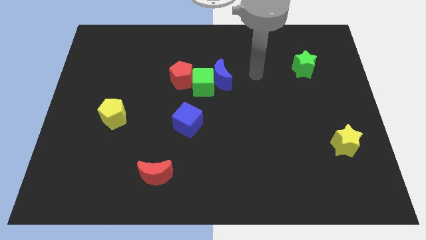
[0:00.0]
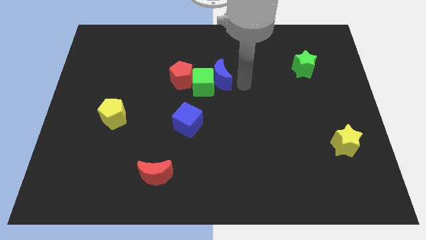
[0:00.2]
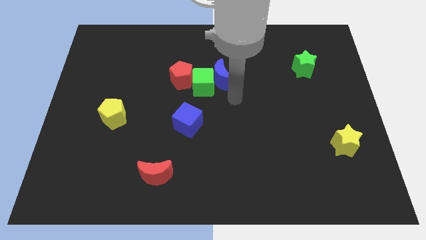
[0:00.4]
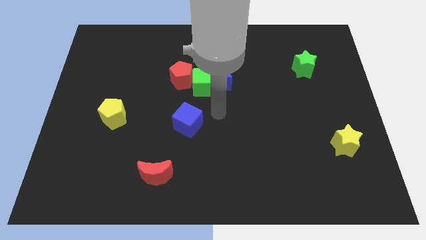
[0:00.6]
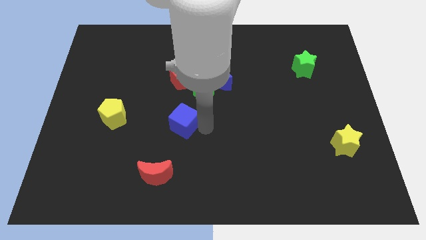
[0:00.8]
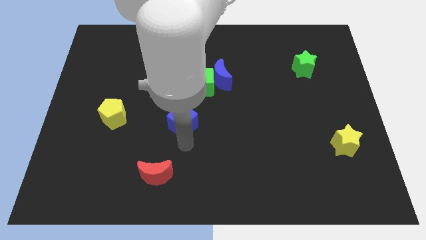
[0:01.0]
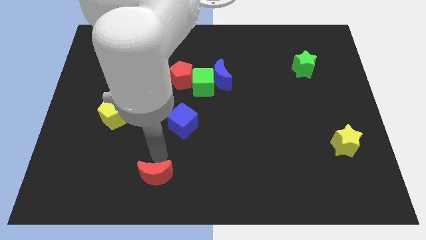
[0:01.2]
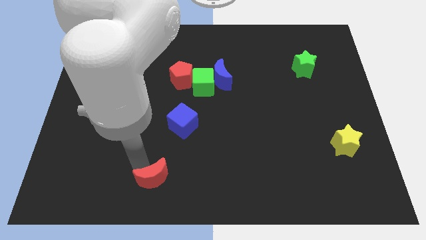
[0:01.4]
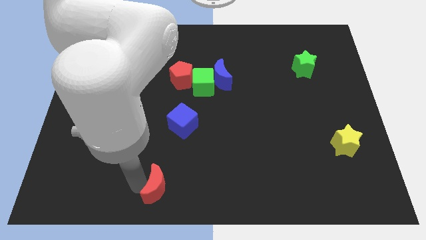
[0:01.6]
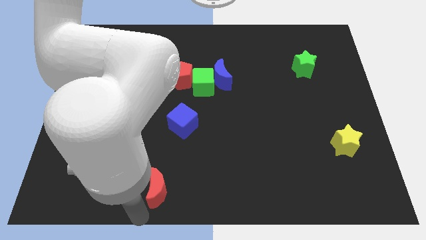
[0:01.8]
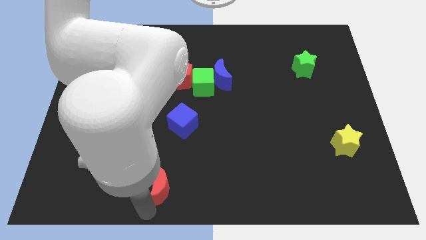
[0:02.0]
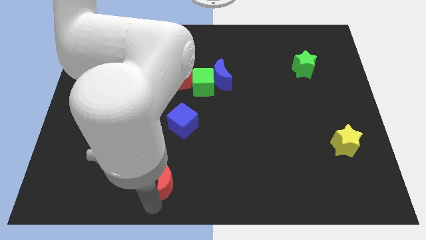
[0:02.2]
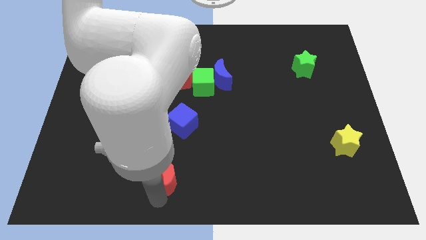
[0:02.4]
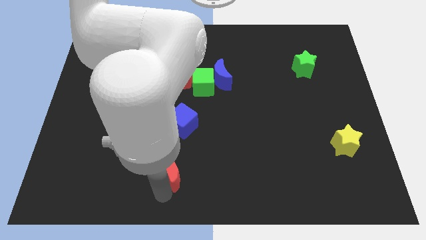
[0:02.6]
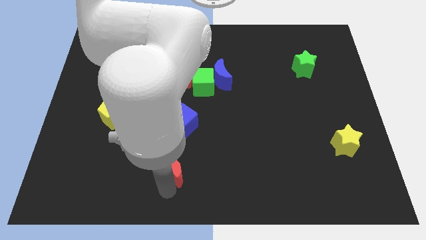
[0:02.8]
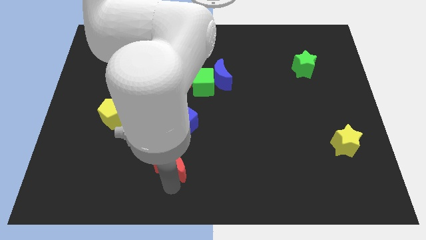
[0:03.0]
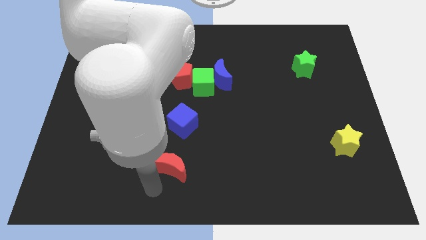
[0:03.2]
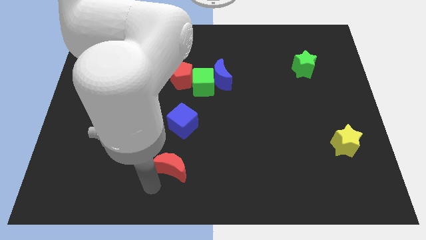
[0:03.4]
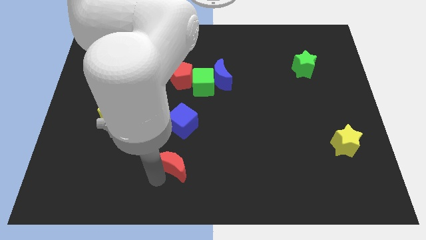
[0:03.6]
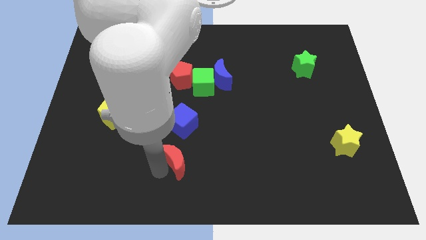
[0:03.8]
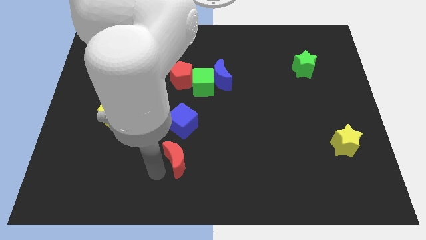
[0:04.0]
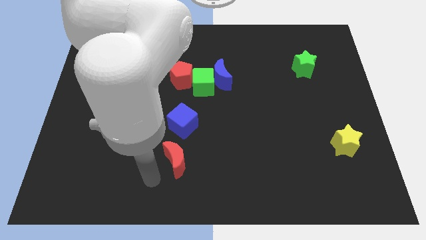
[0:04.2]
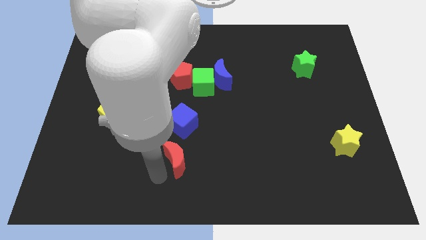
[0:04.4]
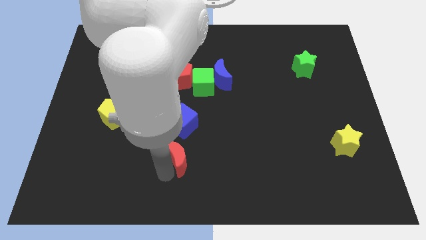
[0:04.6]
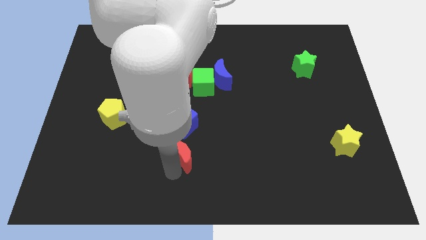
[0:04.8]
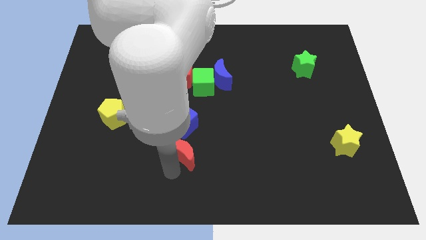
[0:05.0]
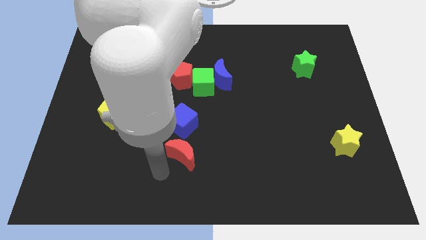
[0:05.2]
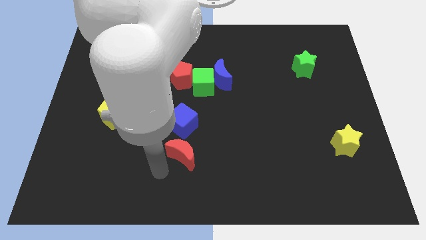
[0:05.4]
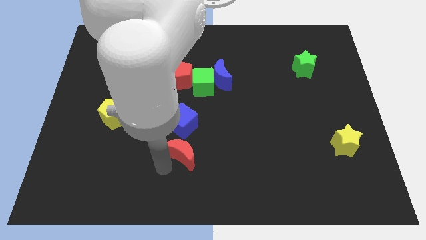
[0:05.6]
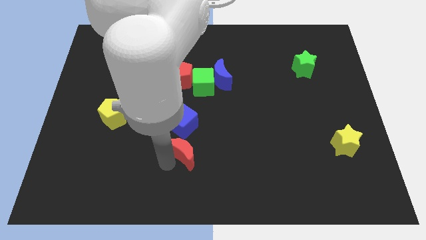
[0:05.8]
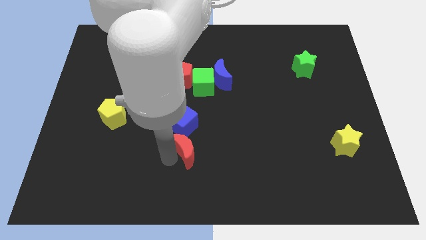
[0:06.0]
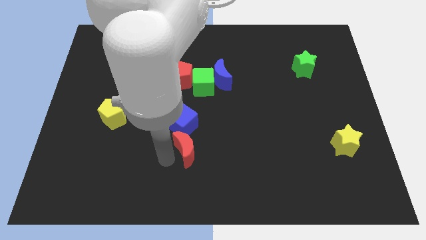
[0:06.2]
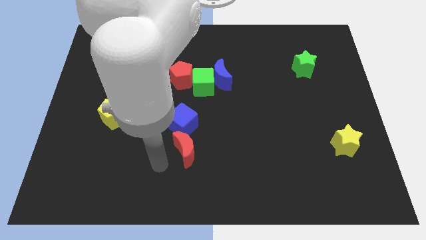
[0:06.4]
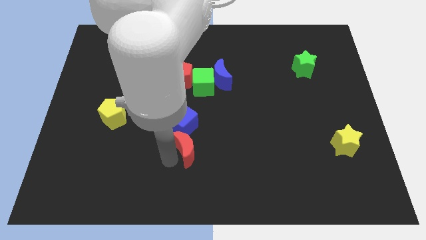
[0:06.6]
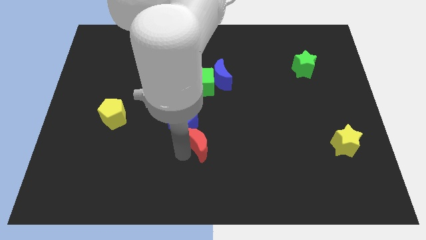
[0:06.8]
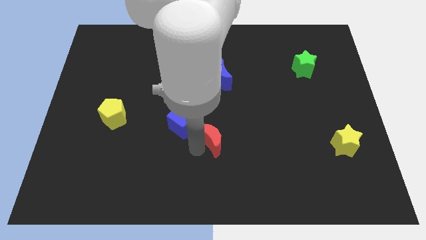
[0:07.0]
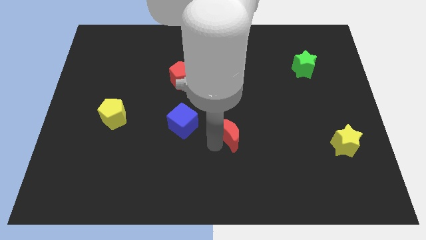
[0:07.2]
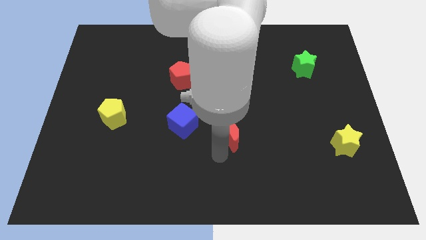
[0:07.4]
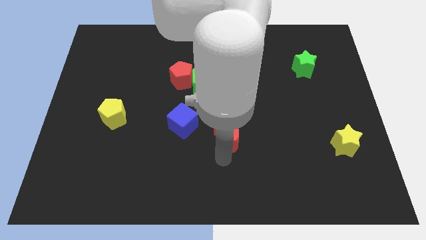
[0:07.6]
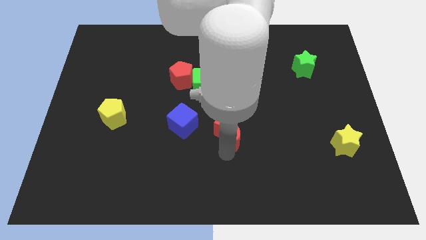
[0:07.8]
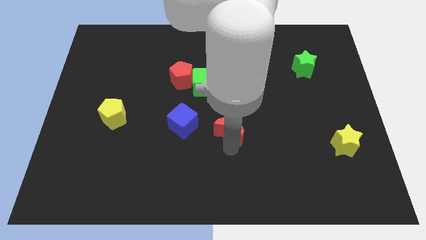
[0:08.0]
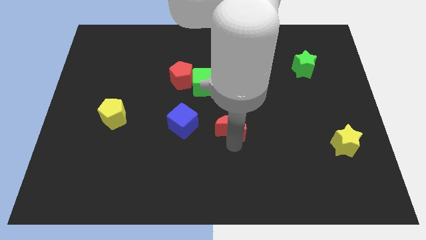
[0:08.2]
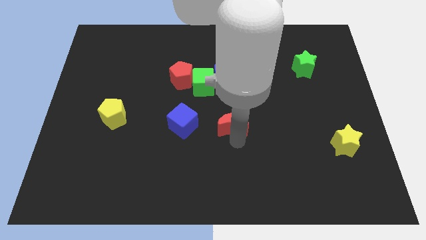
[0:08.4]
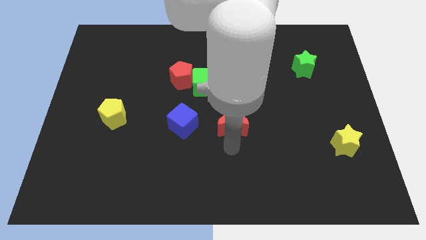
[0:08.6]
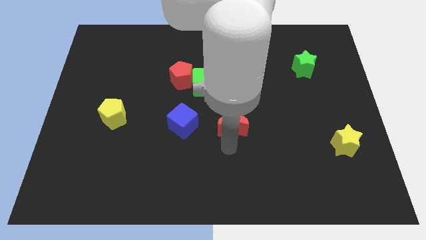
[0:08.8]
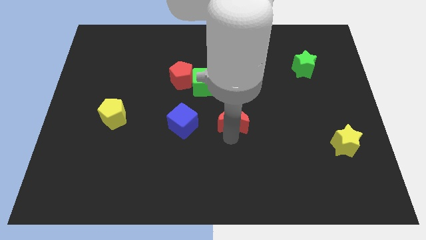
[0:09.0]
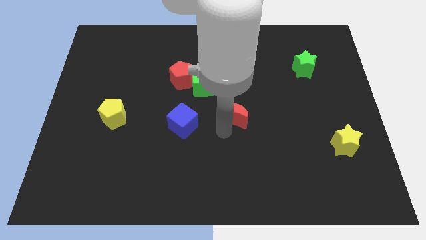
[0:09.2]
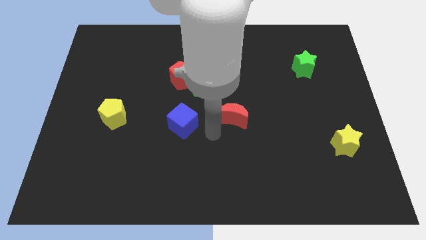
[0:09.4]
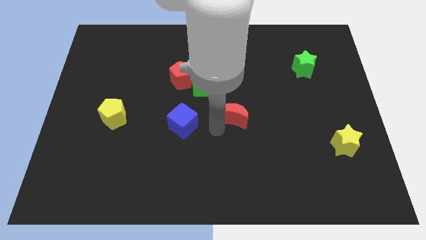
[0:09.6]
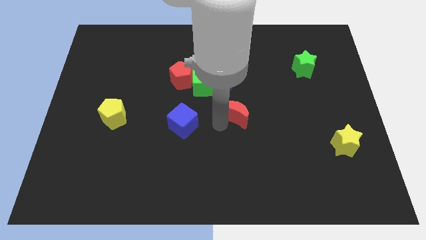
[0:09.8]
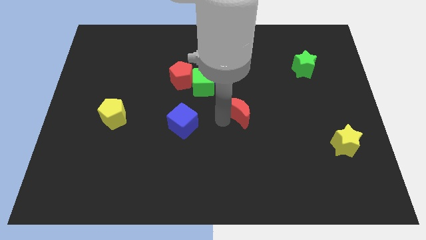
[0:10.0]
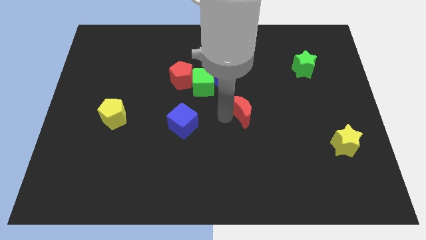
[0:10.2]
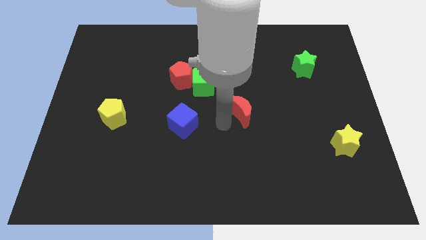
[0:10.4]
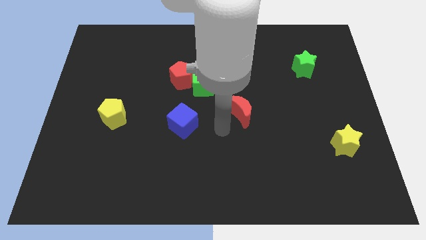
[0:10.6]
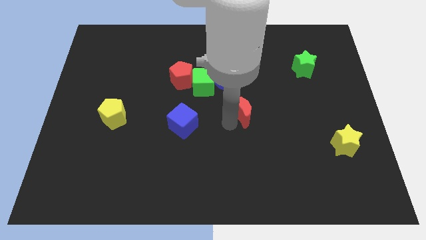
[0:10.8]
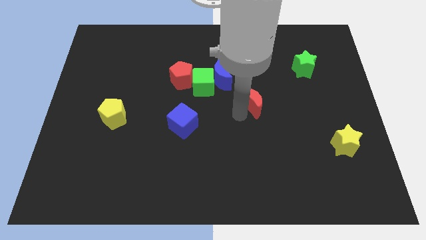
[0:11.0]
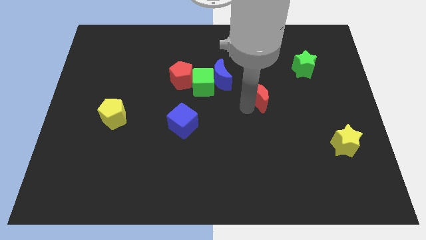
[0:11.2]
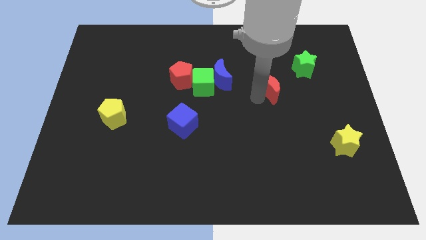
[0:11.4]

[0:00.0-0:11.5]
push the red moon diagonally down and to the left of the green star

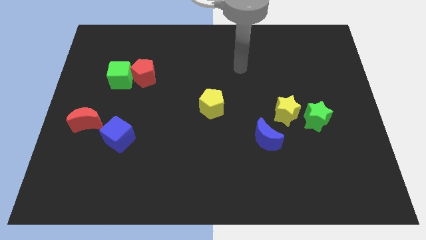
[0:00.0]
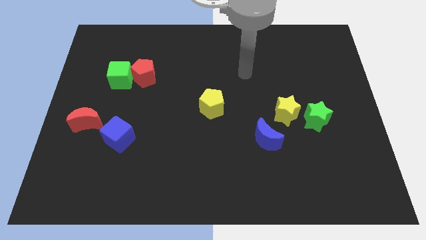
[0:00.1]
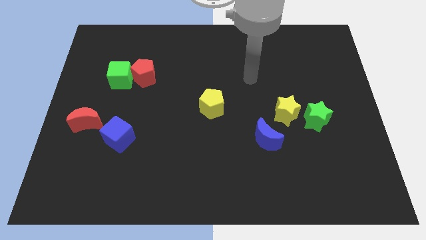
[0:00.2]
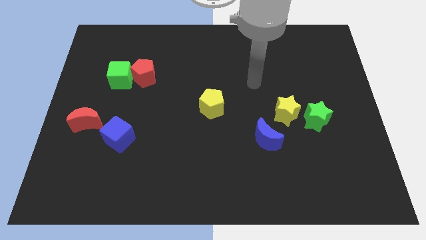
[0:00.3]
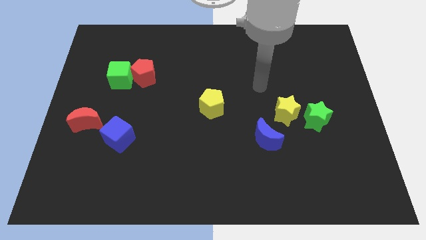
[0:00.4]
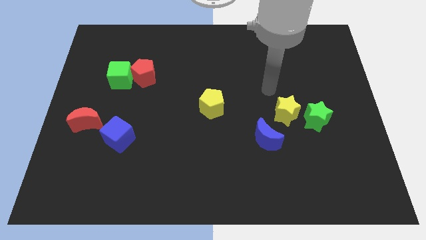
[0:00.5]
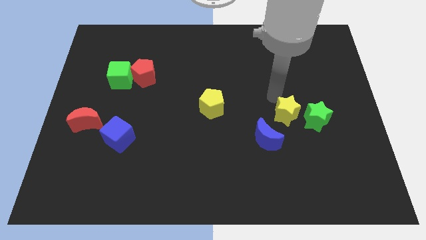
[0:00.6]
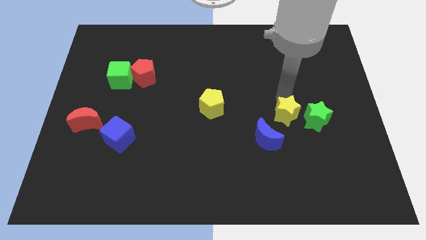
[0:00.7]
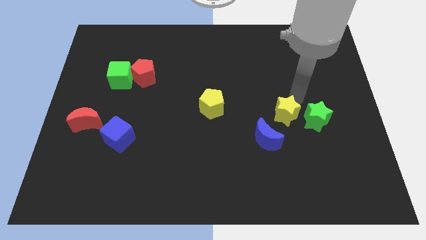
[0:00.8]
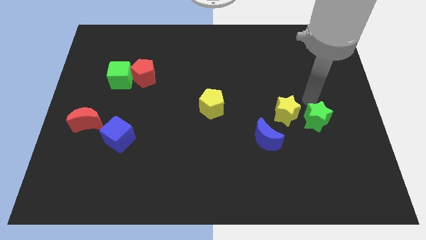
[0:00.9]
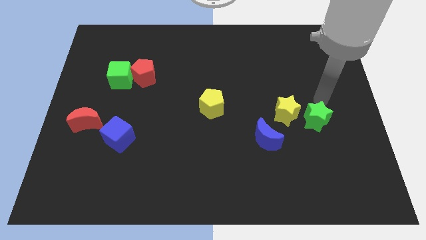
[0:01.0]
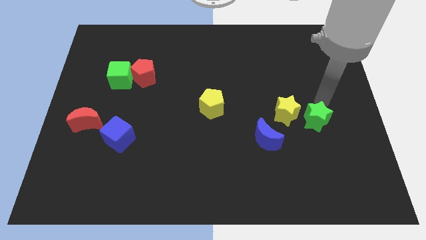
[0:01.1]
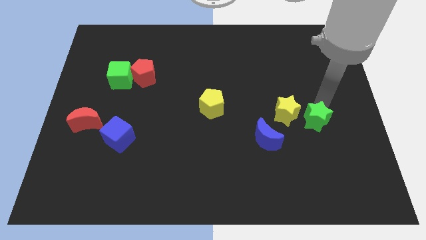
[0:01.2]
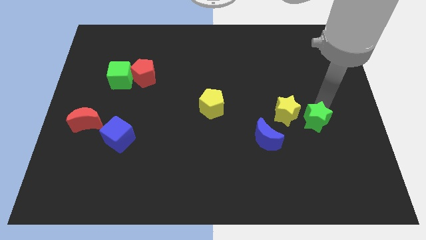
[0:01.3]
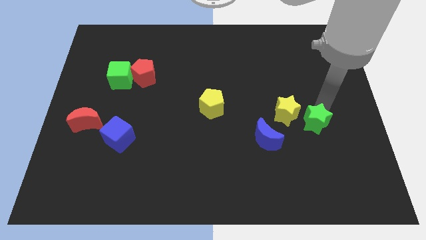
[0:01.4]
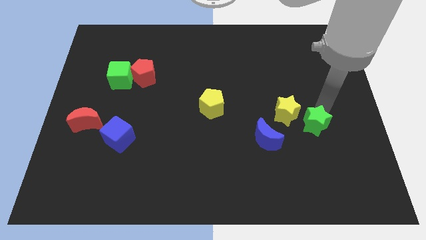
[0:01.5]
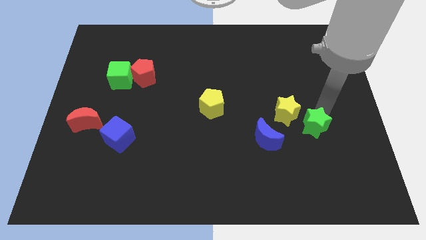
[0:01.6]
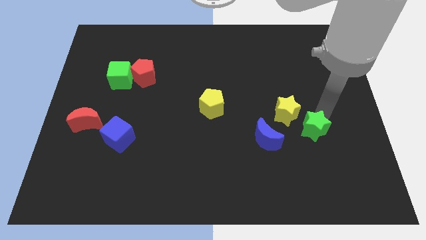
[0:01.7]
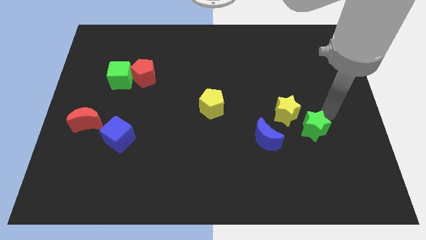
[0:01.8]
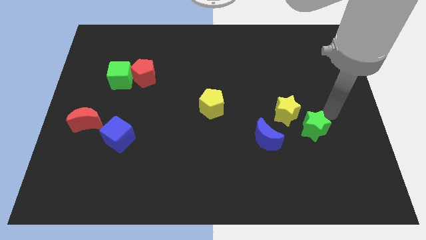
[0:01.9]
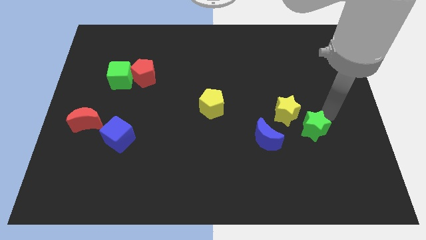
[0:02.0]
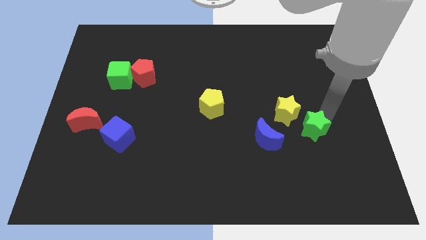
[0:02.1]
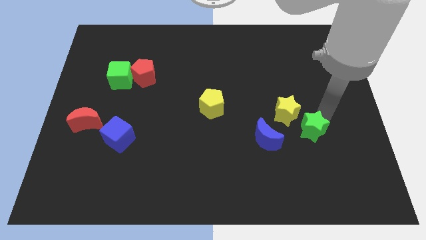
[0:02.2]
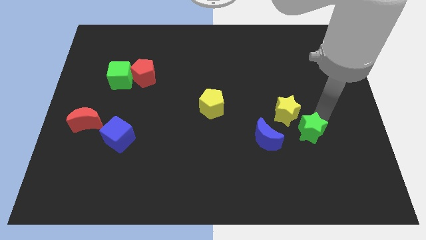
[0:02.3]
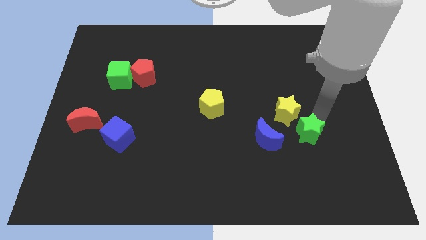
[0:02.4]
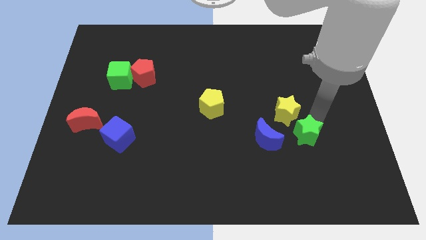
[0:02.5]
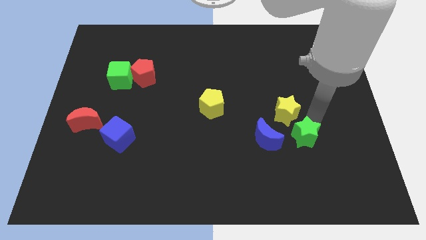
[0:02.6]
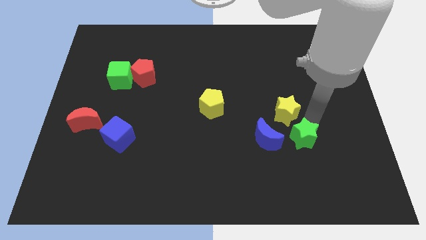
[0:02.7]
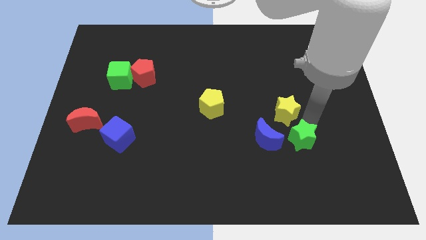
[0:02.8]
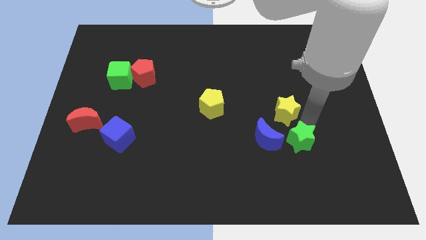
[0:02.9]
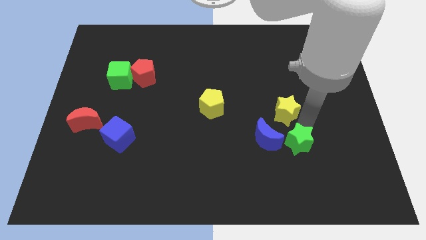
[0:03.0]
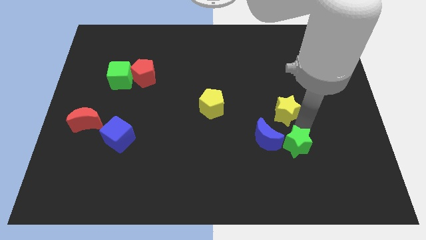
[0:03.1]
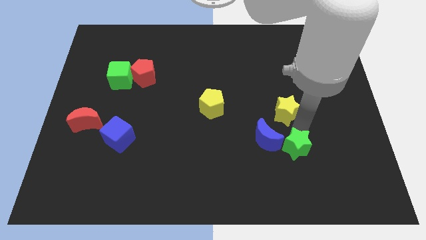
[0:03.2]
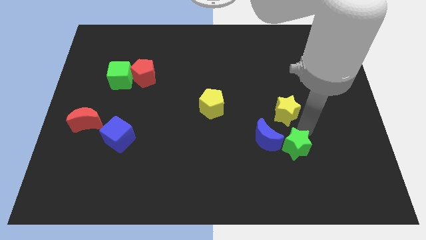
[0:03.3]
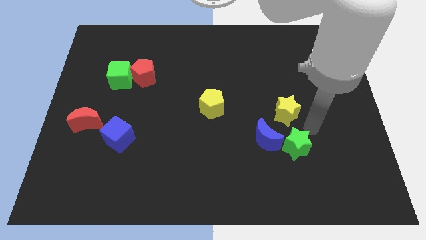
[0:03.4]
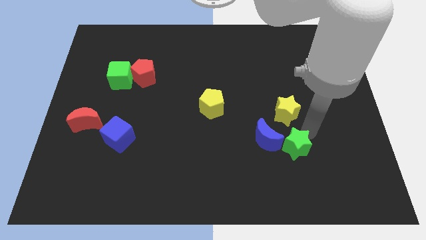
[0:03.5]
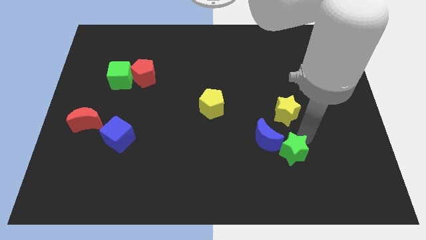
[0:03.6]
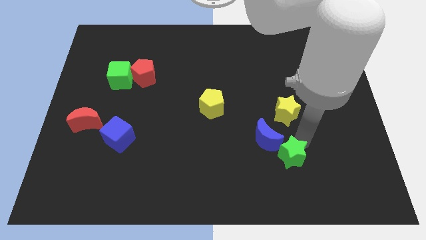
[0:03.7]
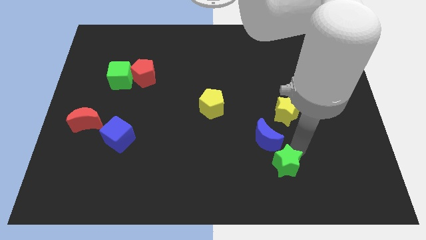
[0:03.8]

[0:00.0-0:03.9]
push the green star below the blue moon
